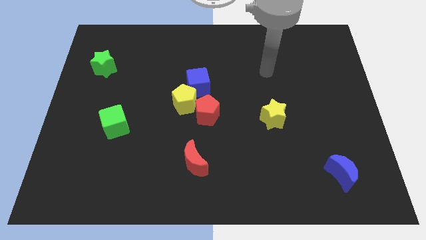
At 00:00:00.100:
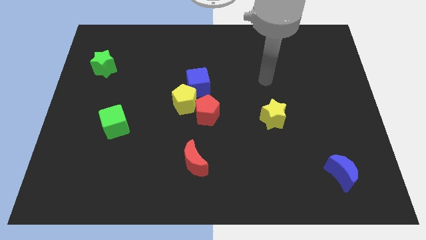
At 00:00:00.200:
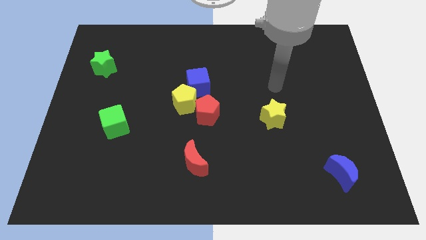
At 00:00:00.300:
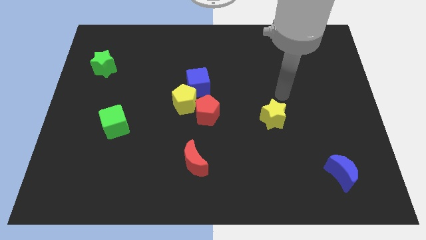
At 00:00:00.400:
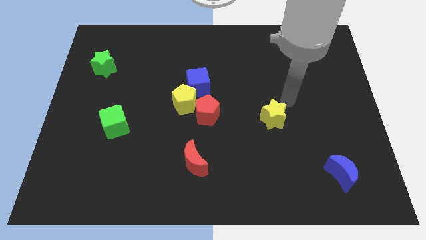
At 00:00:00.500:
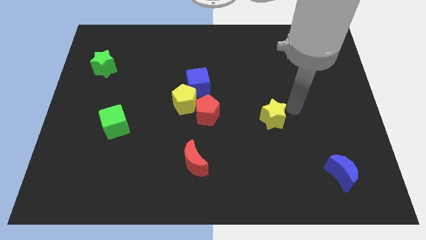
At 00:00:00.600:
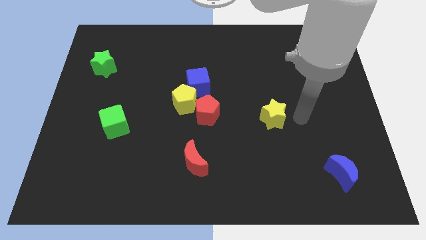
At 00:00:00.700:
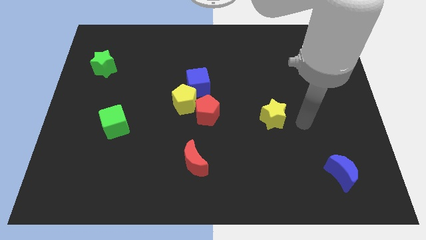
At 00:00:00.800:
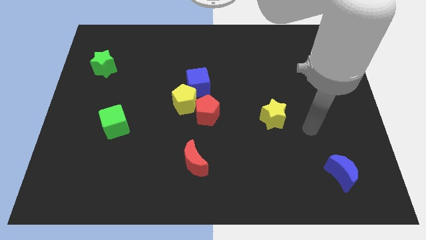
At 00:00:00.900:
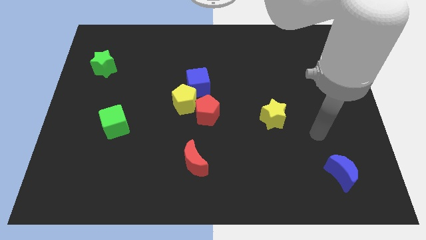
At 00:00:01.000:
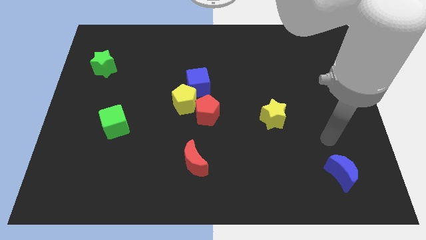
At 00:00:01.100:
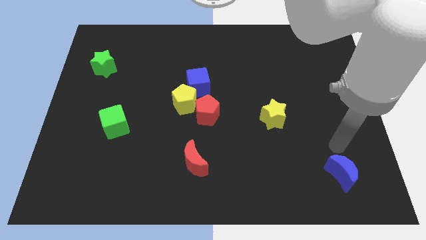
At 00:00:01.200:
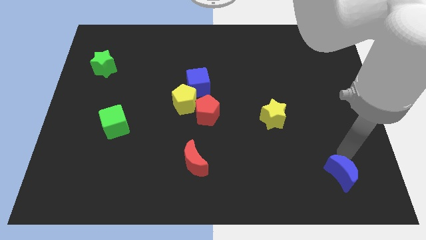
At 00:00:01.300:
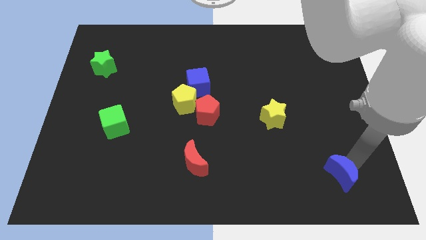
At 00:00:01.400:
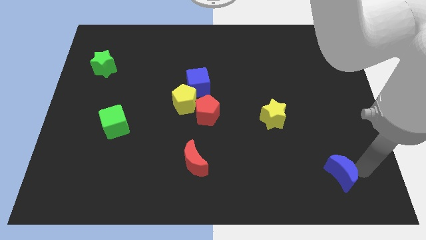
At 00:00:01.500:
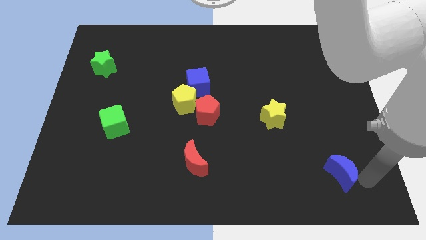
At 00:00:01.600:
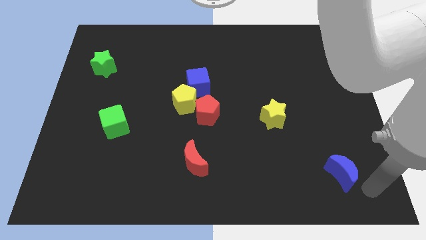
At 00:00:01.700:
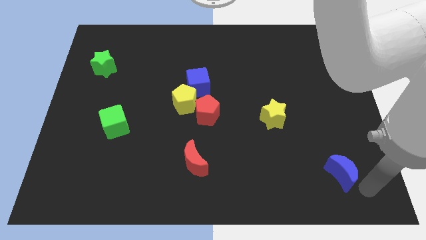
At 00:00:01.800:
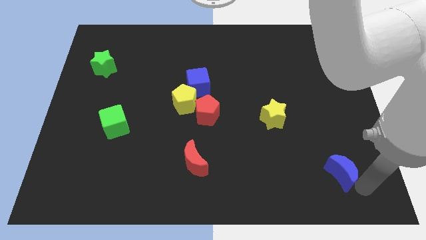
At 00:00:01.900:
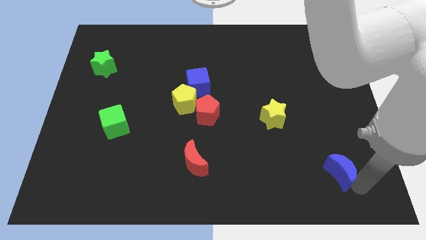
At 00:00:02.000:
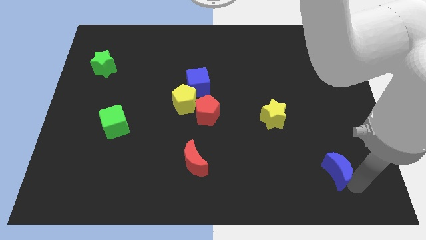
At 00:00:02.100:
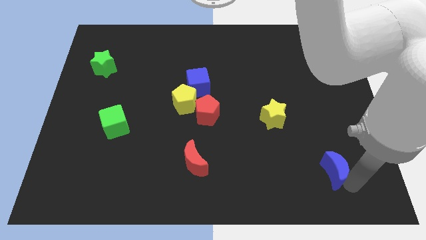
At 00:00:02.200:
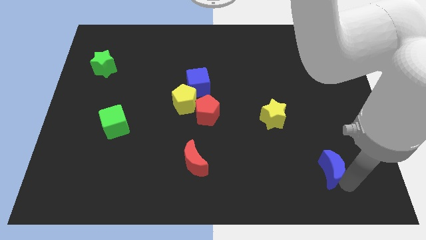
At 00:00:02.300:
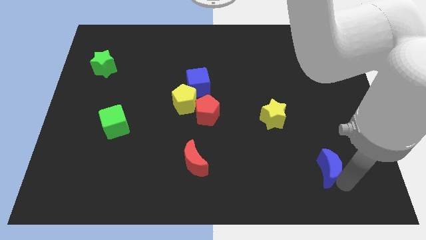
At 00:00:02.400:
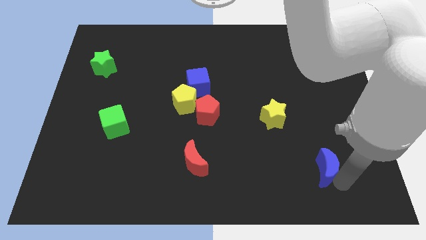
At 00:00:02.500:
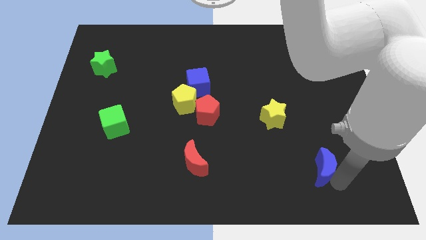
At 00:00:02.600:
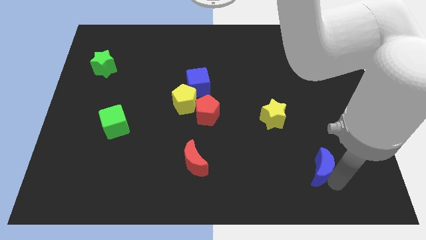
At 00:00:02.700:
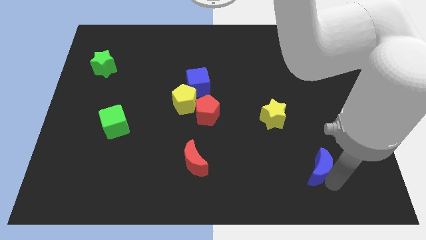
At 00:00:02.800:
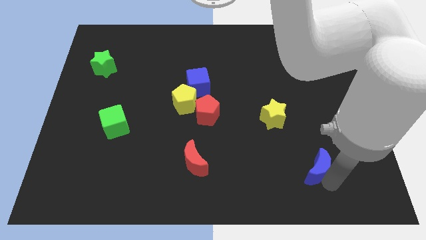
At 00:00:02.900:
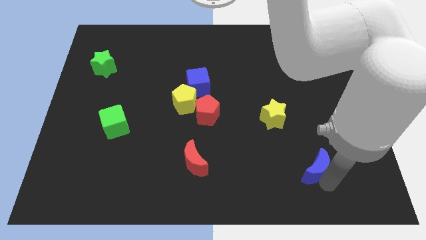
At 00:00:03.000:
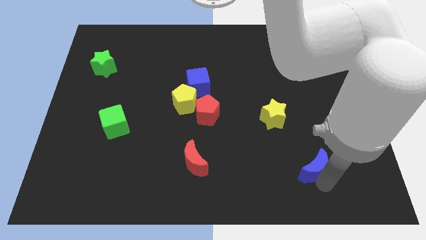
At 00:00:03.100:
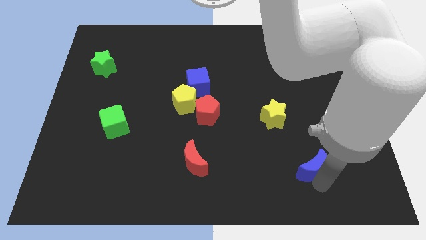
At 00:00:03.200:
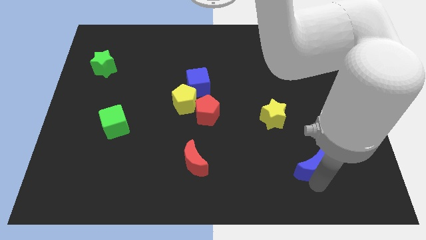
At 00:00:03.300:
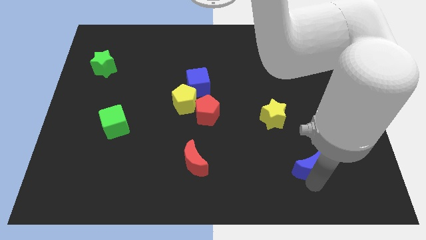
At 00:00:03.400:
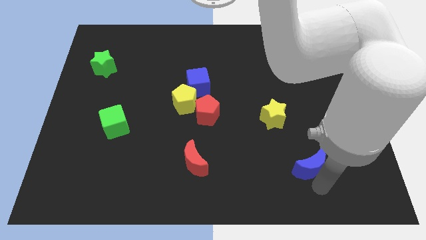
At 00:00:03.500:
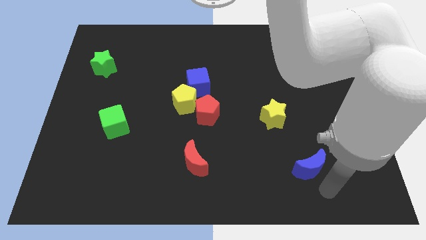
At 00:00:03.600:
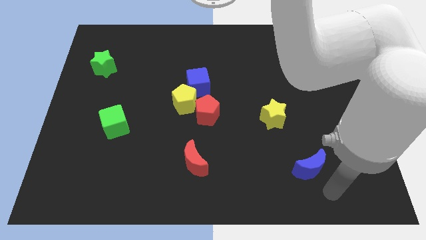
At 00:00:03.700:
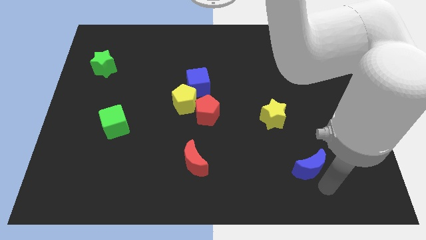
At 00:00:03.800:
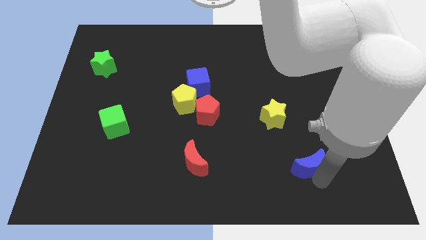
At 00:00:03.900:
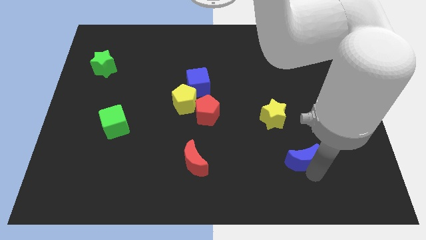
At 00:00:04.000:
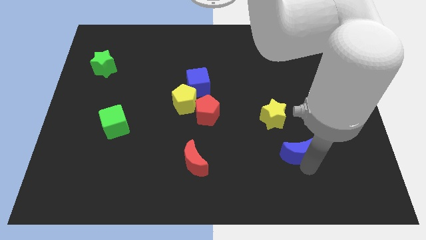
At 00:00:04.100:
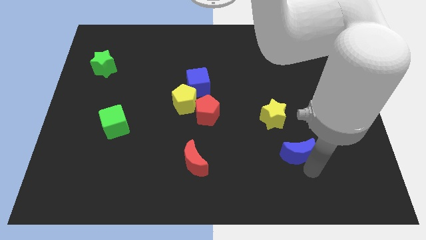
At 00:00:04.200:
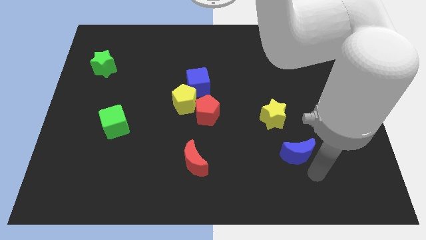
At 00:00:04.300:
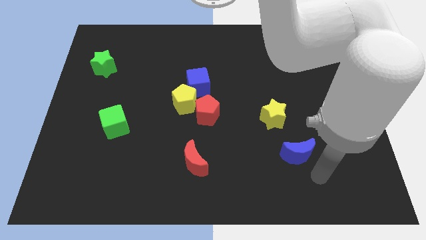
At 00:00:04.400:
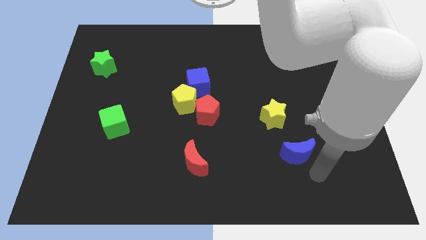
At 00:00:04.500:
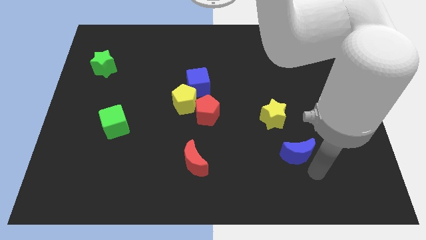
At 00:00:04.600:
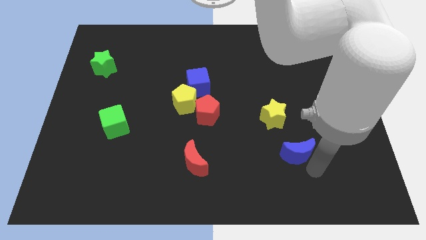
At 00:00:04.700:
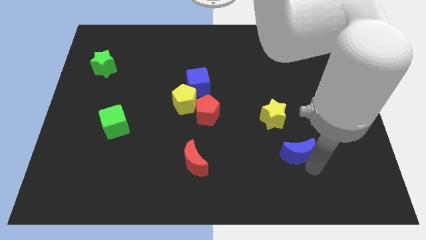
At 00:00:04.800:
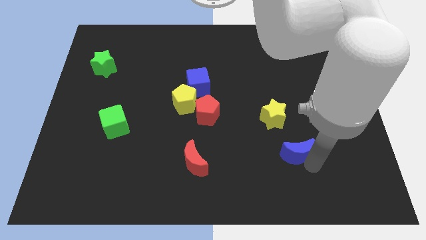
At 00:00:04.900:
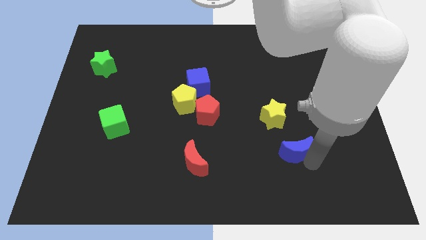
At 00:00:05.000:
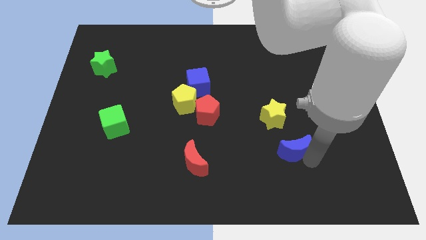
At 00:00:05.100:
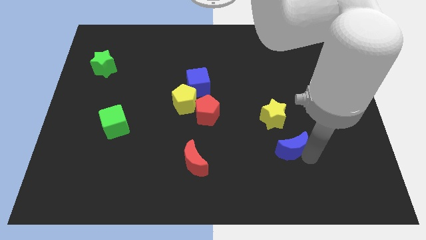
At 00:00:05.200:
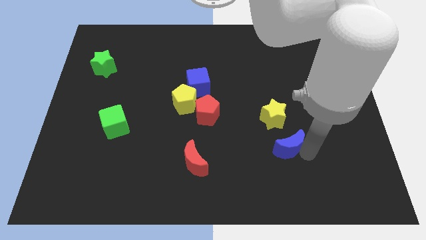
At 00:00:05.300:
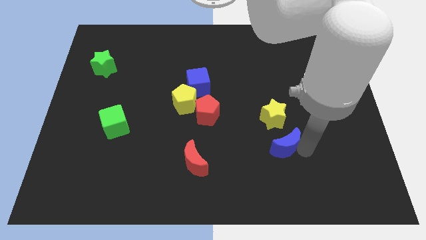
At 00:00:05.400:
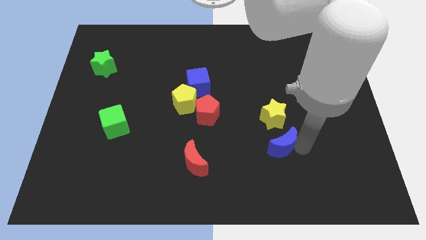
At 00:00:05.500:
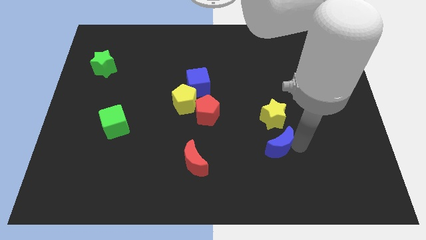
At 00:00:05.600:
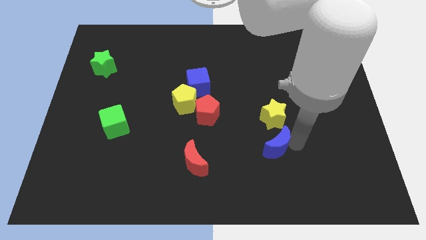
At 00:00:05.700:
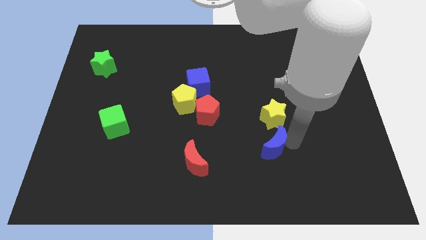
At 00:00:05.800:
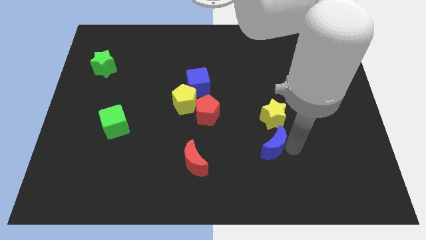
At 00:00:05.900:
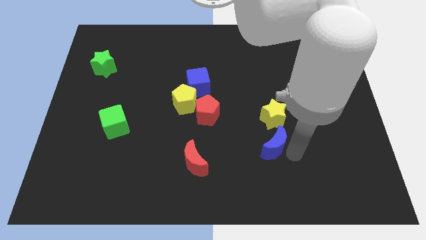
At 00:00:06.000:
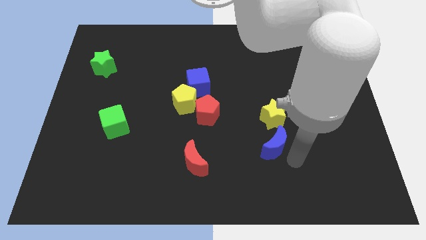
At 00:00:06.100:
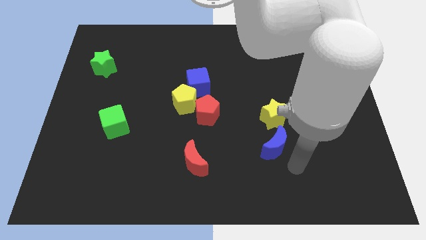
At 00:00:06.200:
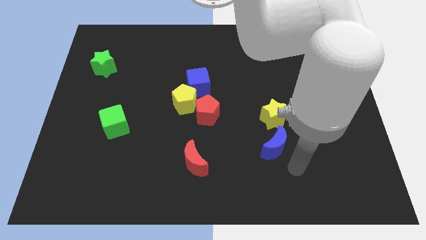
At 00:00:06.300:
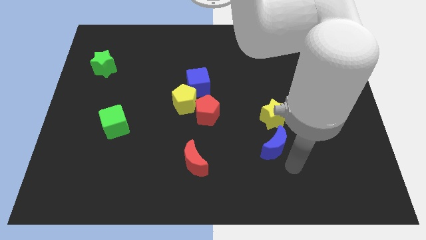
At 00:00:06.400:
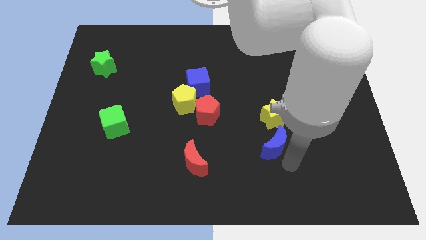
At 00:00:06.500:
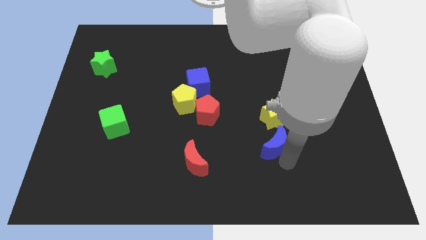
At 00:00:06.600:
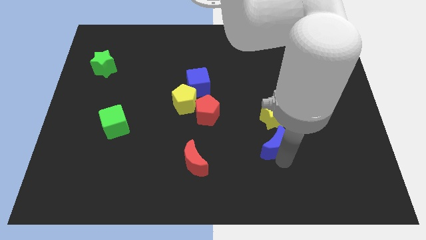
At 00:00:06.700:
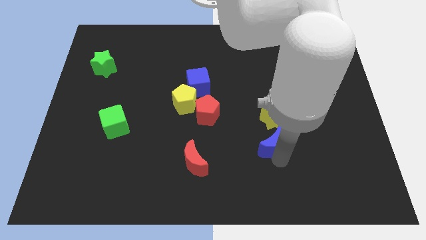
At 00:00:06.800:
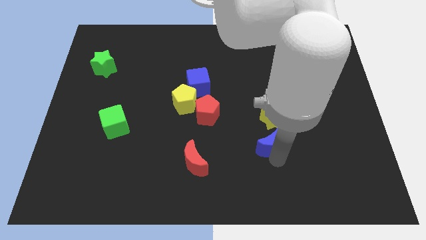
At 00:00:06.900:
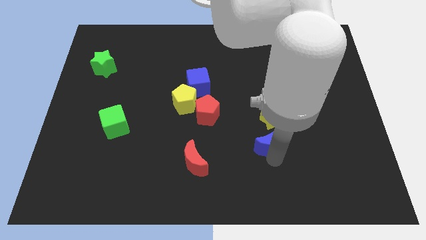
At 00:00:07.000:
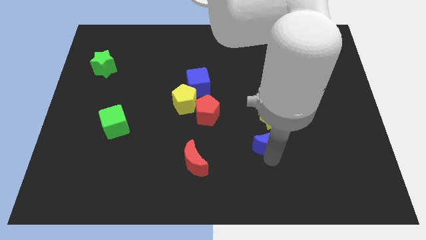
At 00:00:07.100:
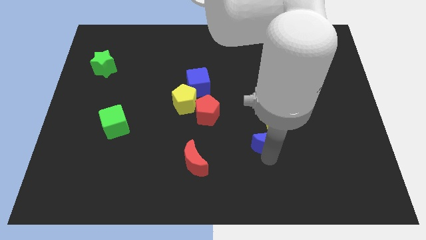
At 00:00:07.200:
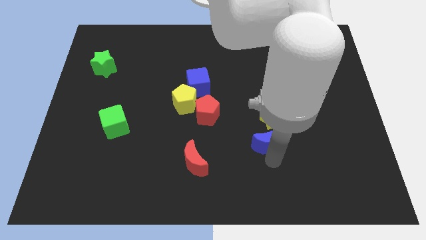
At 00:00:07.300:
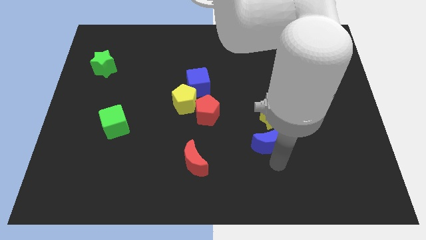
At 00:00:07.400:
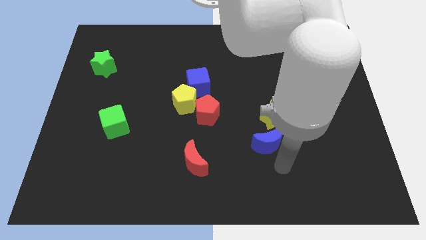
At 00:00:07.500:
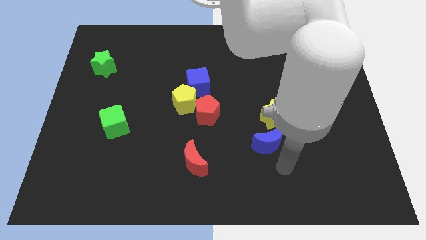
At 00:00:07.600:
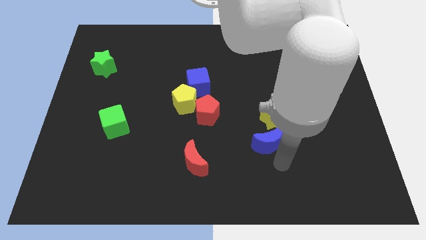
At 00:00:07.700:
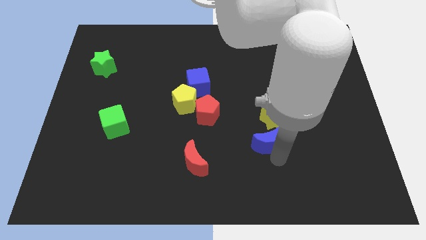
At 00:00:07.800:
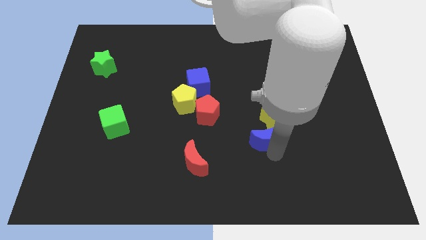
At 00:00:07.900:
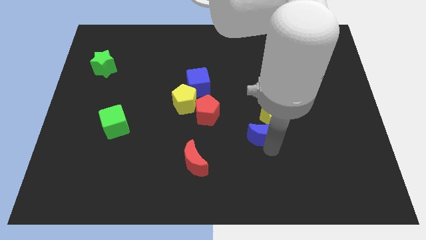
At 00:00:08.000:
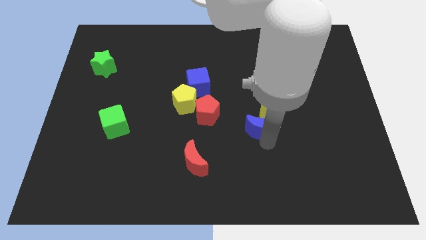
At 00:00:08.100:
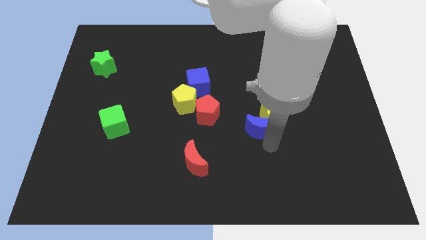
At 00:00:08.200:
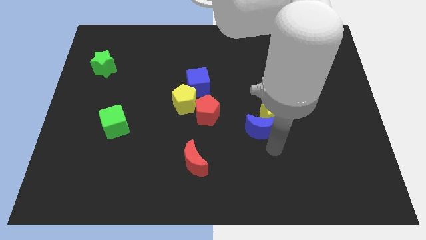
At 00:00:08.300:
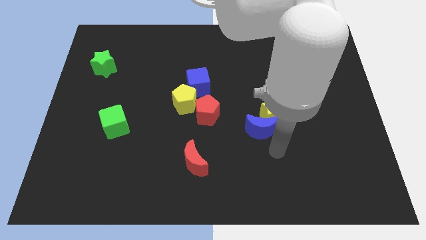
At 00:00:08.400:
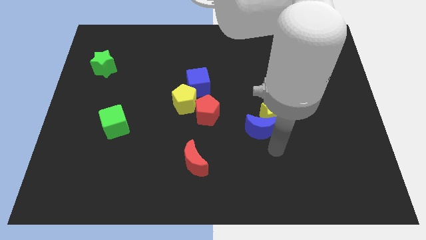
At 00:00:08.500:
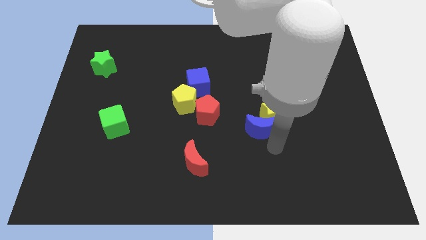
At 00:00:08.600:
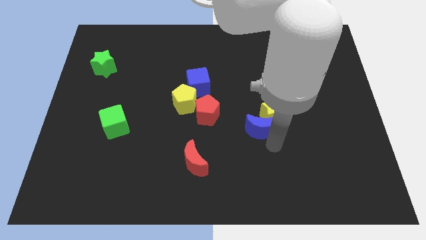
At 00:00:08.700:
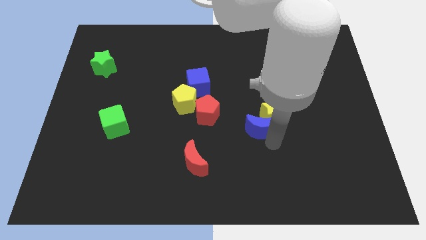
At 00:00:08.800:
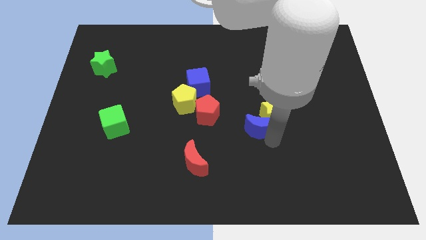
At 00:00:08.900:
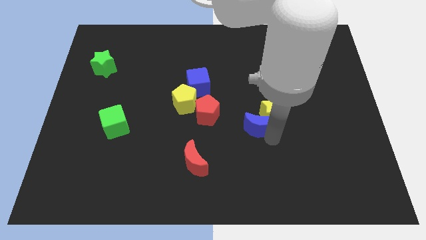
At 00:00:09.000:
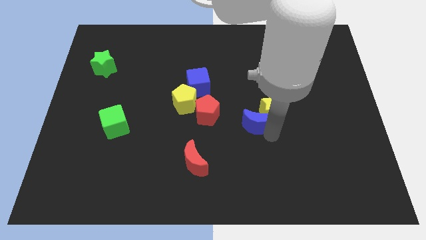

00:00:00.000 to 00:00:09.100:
slide the blue moon to the center of the board
